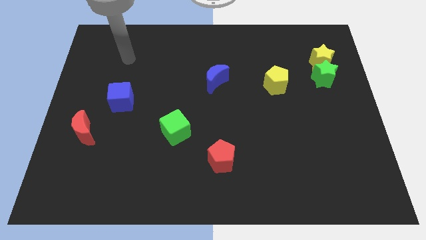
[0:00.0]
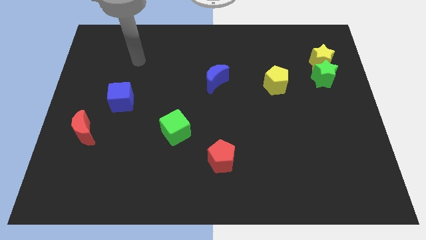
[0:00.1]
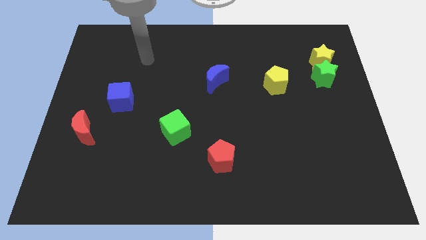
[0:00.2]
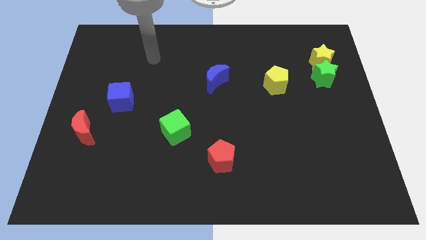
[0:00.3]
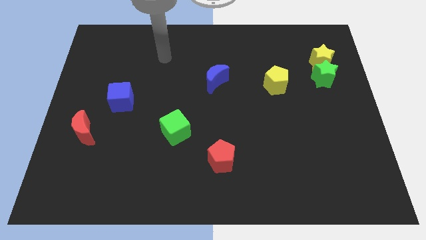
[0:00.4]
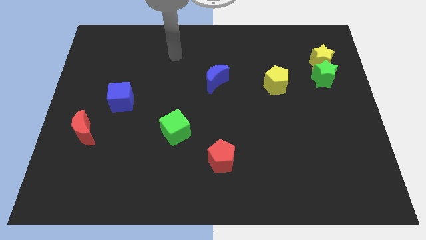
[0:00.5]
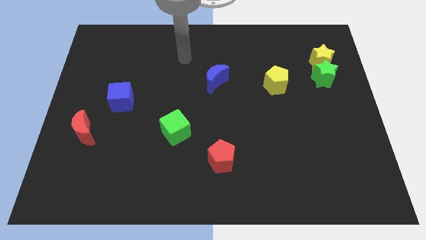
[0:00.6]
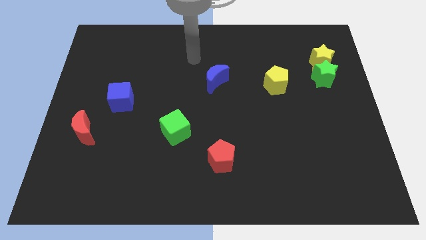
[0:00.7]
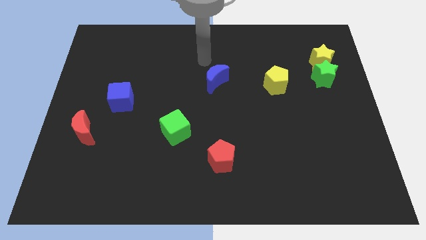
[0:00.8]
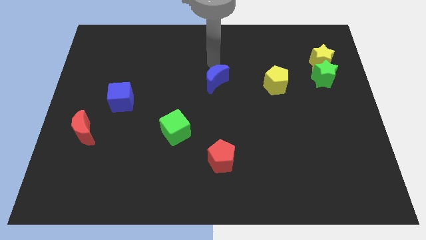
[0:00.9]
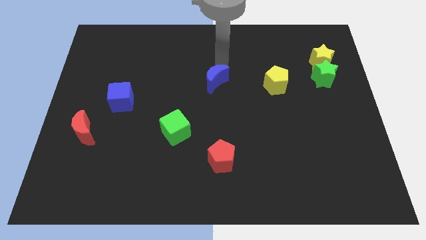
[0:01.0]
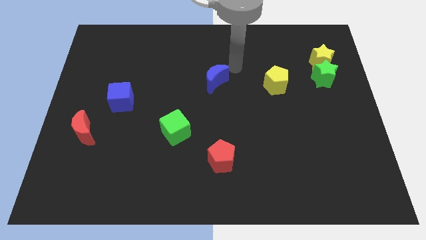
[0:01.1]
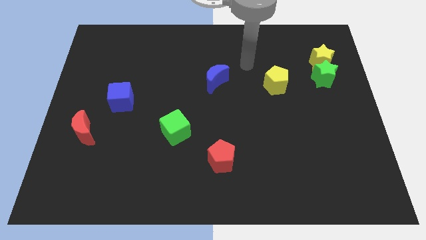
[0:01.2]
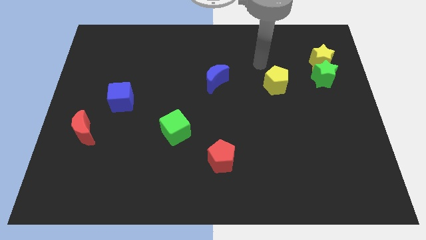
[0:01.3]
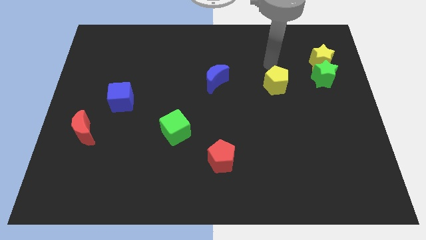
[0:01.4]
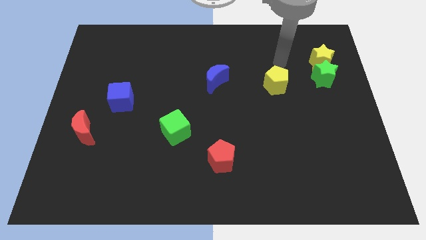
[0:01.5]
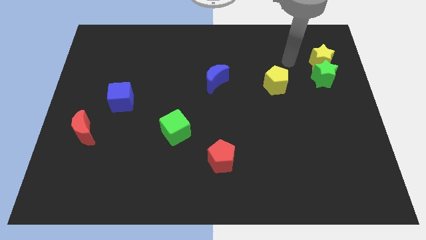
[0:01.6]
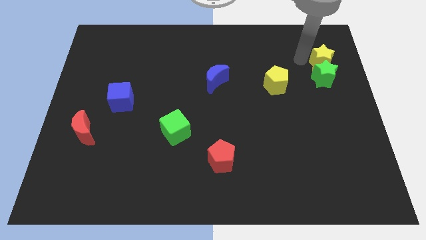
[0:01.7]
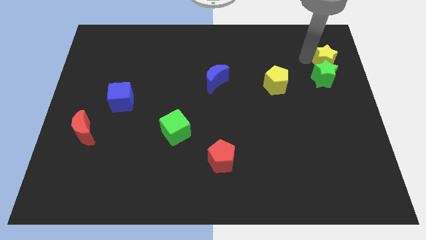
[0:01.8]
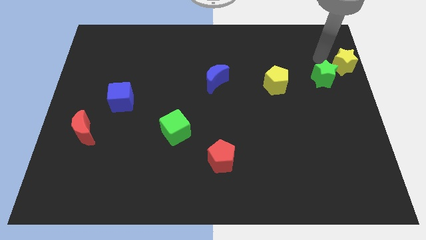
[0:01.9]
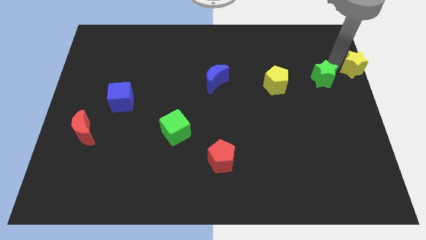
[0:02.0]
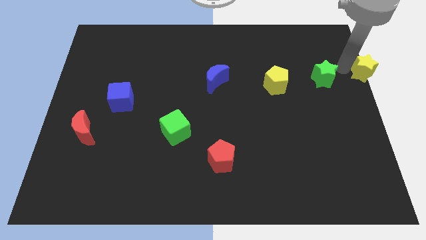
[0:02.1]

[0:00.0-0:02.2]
move the green star away from the yellow star

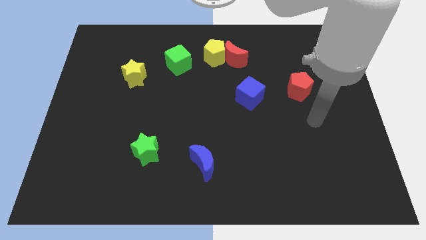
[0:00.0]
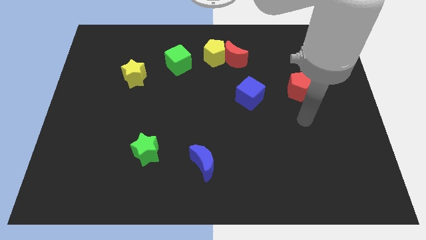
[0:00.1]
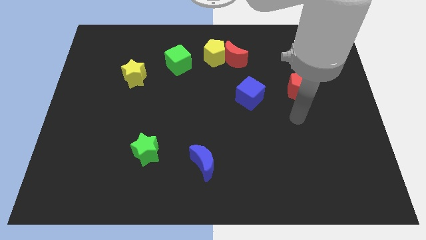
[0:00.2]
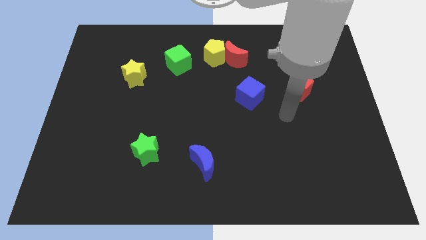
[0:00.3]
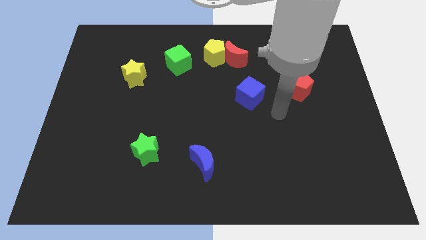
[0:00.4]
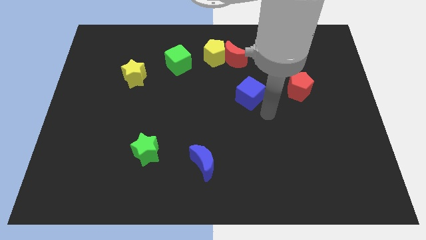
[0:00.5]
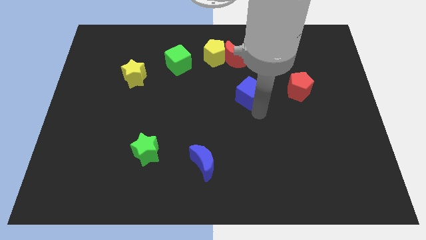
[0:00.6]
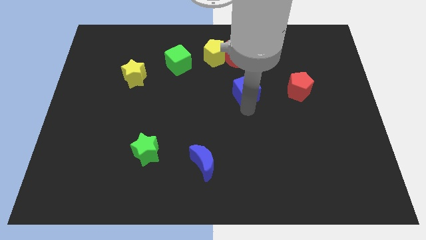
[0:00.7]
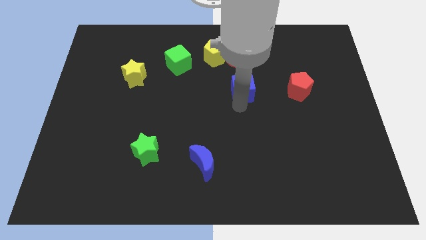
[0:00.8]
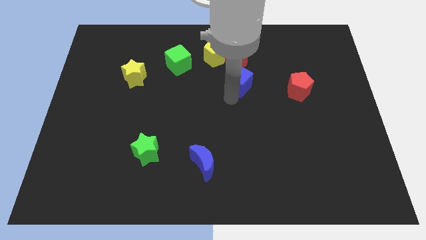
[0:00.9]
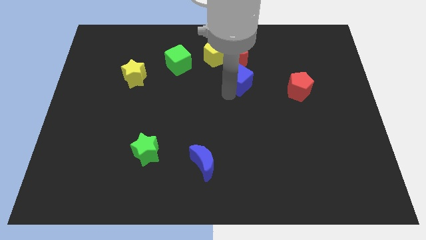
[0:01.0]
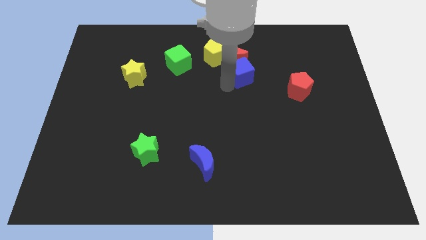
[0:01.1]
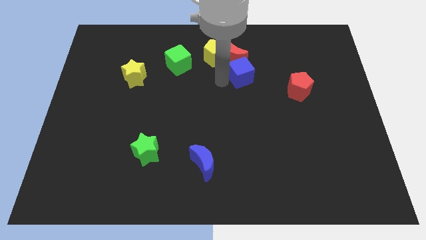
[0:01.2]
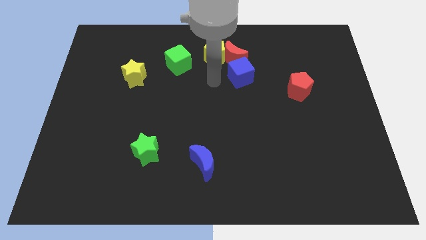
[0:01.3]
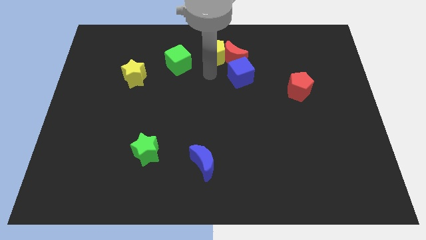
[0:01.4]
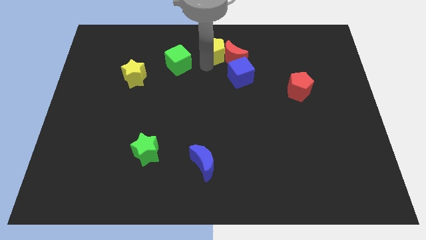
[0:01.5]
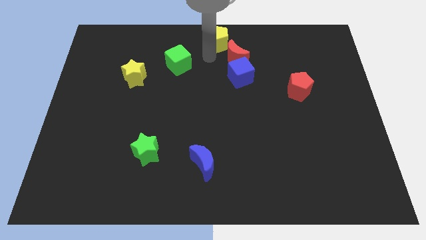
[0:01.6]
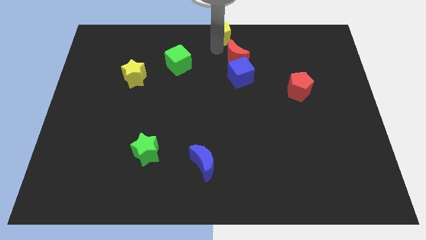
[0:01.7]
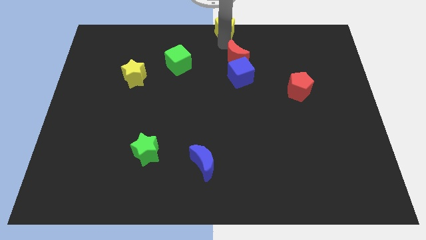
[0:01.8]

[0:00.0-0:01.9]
move the red moon away from the yellow pentagon

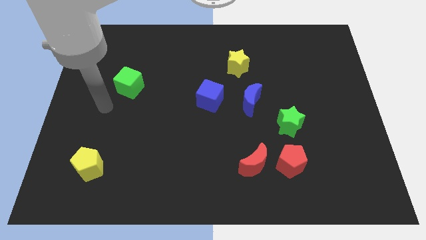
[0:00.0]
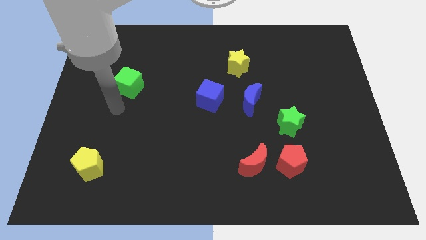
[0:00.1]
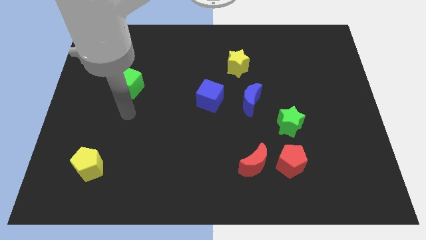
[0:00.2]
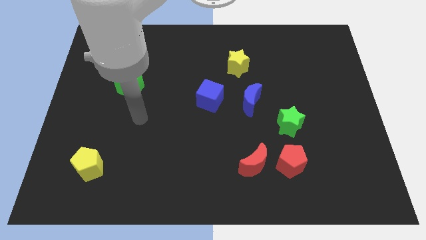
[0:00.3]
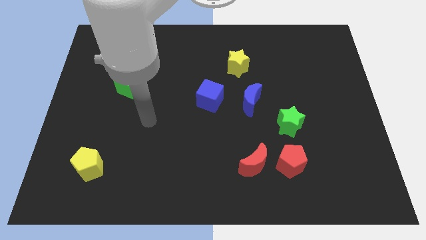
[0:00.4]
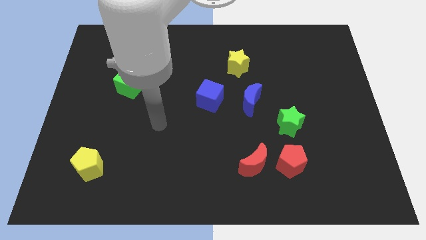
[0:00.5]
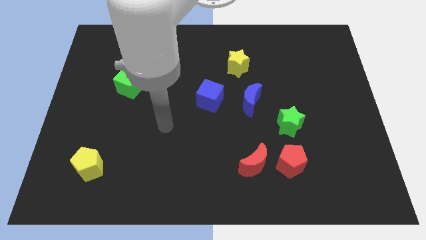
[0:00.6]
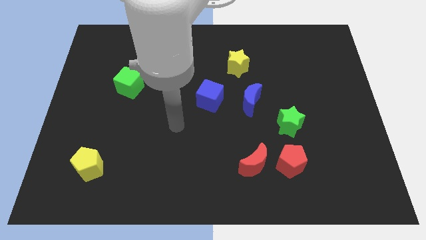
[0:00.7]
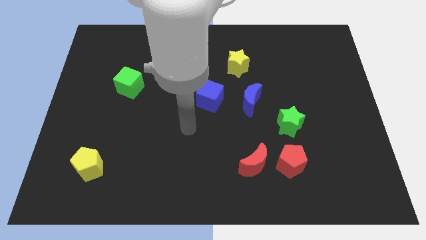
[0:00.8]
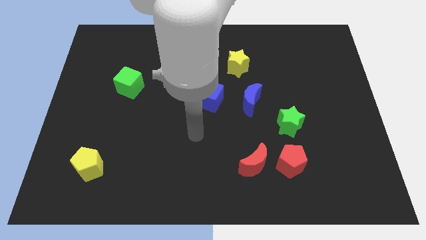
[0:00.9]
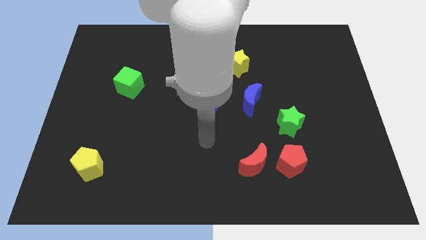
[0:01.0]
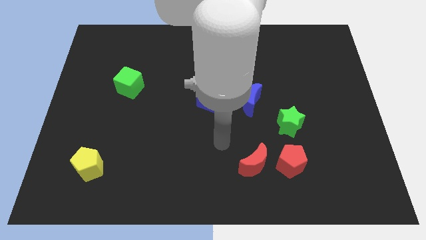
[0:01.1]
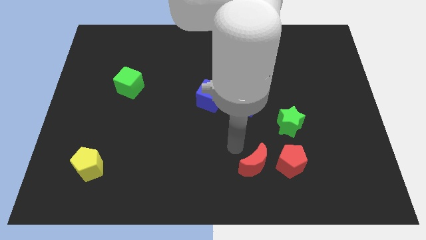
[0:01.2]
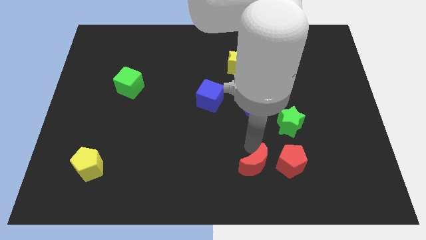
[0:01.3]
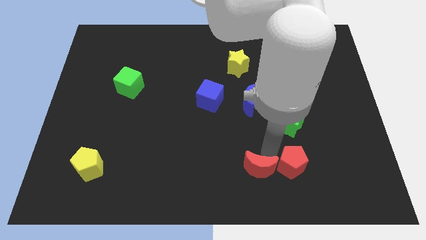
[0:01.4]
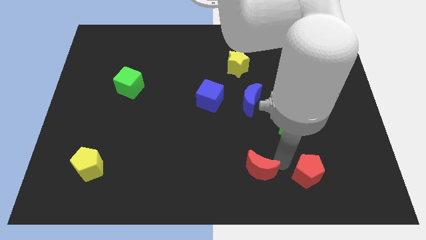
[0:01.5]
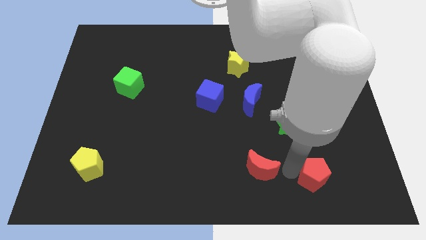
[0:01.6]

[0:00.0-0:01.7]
move the red moon away from the red pentagon

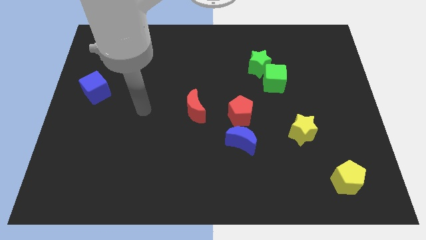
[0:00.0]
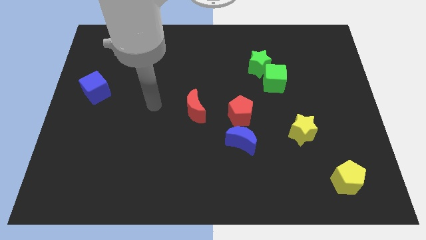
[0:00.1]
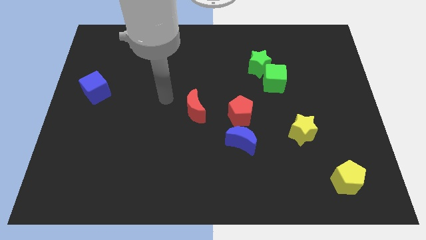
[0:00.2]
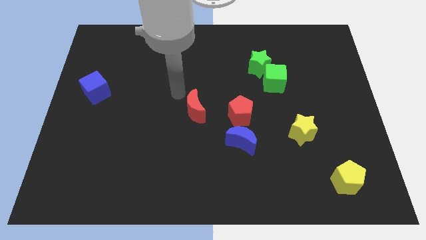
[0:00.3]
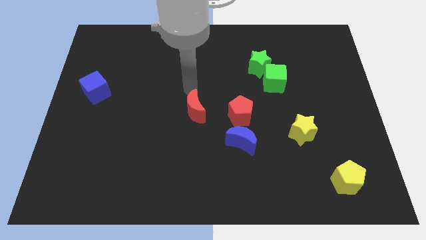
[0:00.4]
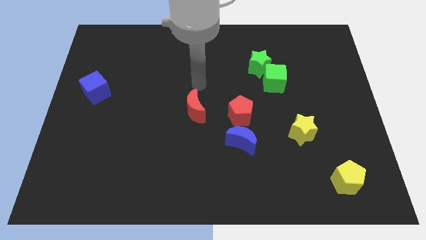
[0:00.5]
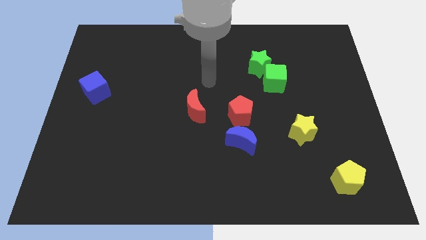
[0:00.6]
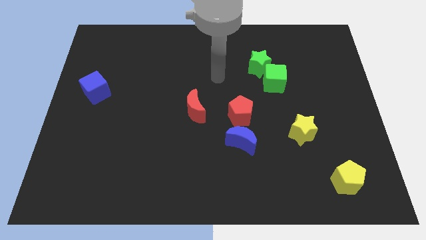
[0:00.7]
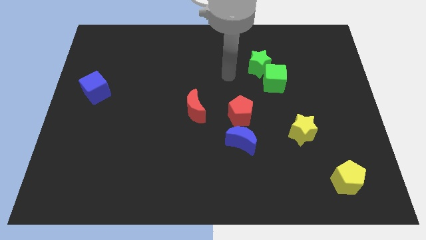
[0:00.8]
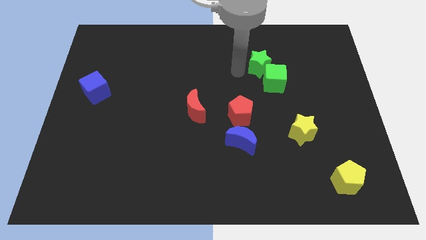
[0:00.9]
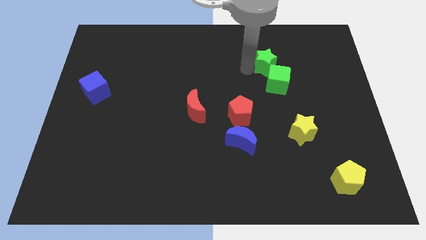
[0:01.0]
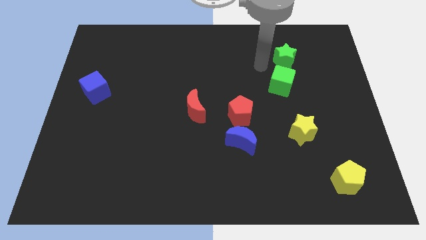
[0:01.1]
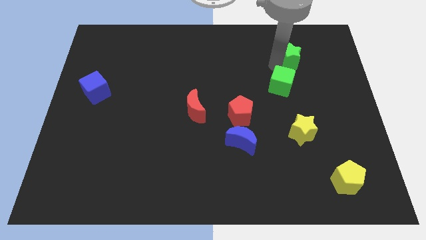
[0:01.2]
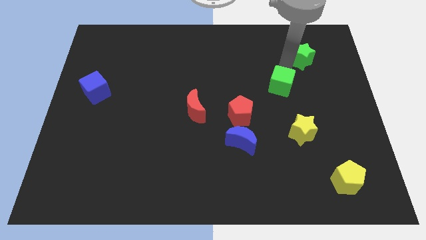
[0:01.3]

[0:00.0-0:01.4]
move the green cube away from the green star

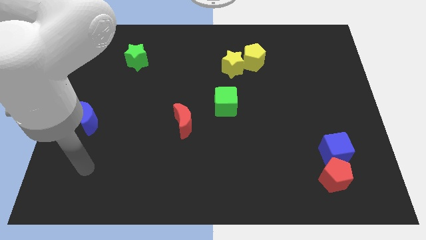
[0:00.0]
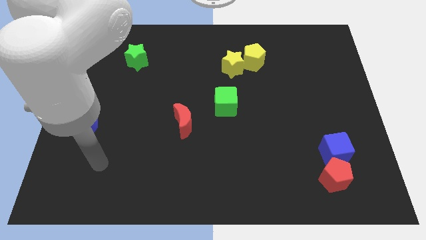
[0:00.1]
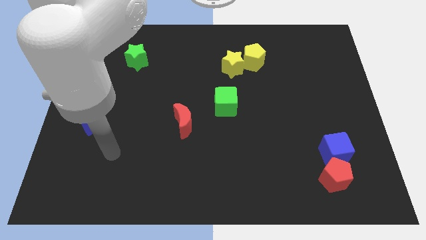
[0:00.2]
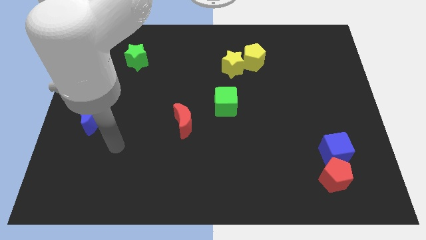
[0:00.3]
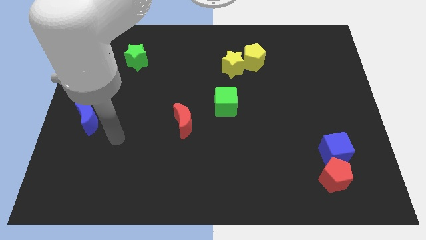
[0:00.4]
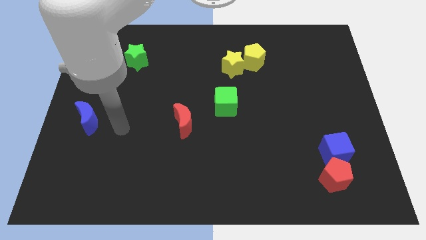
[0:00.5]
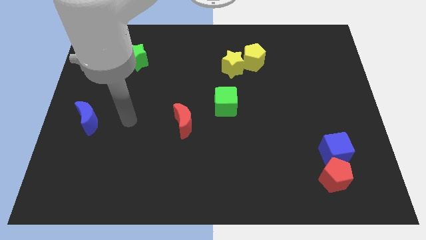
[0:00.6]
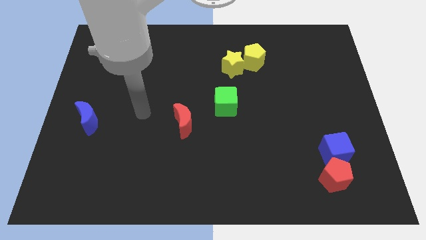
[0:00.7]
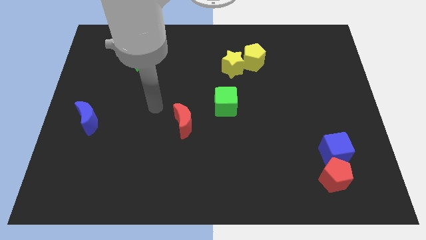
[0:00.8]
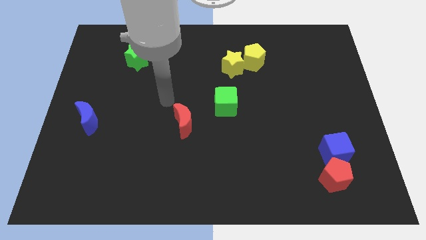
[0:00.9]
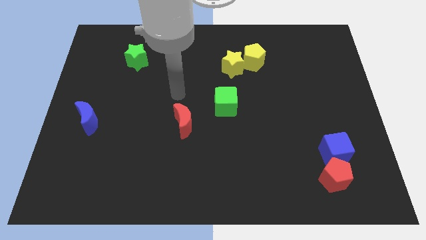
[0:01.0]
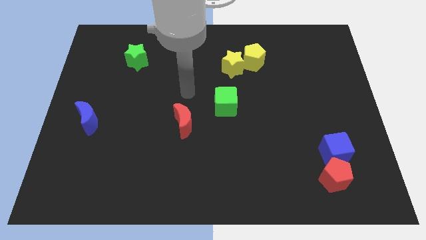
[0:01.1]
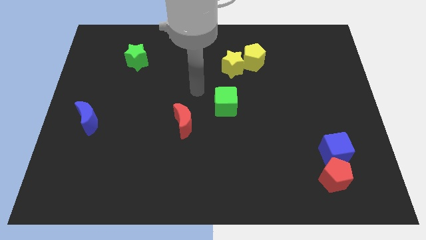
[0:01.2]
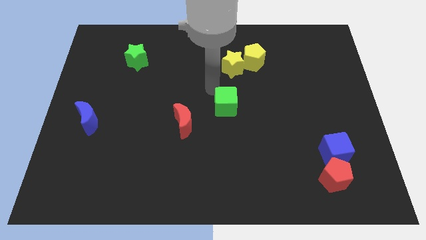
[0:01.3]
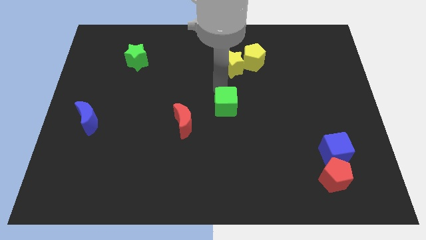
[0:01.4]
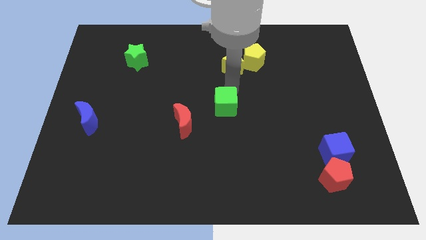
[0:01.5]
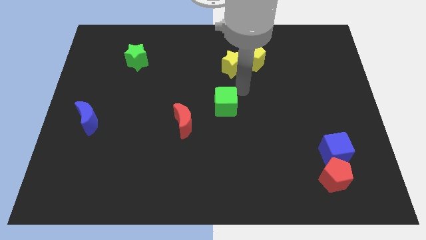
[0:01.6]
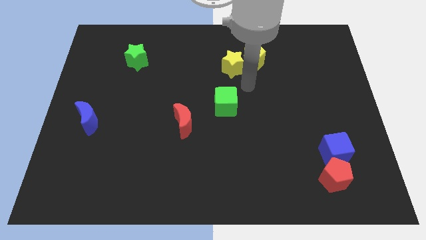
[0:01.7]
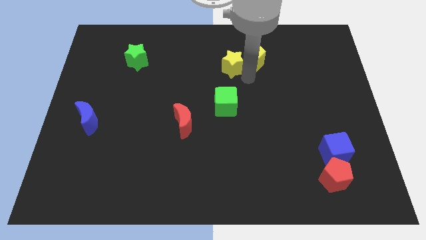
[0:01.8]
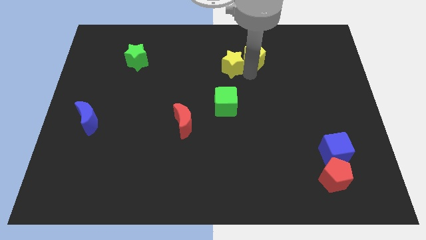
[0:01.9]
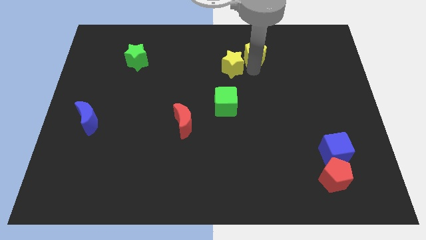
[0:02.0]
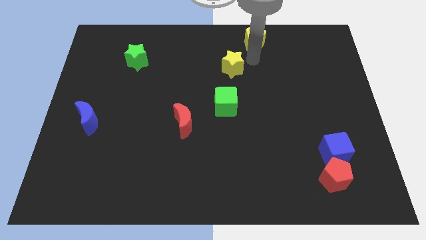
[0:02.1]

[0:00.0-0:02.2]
pull the yellow star apart from the yellow pentagon
